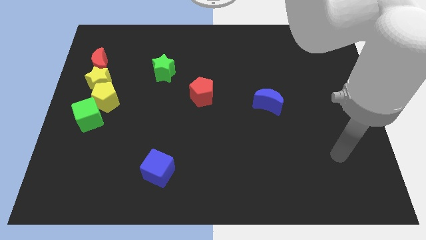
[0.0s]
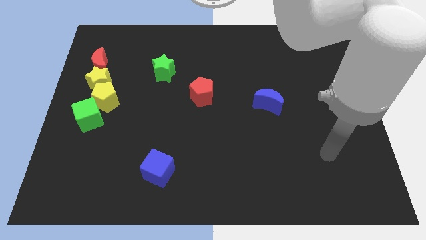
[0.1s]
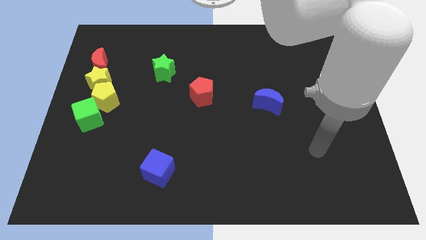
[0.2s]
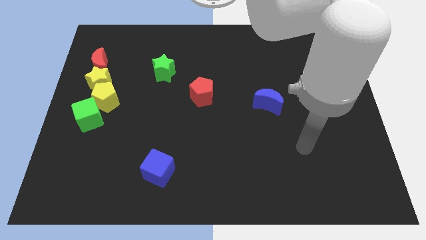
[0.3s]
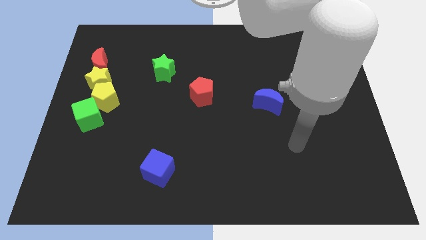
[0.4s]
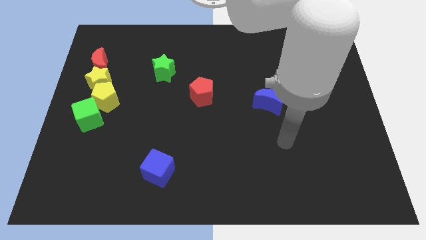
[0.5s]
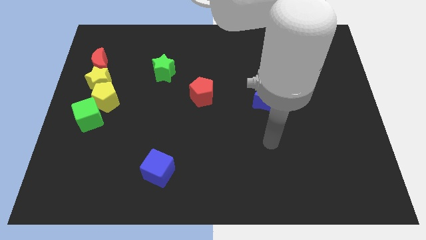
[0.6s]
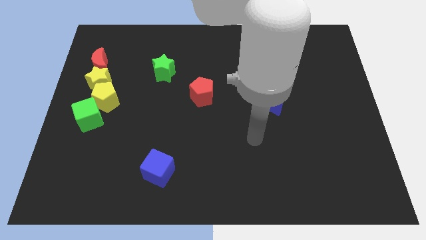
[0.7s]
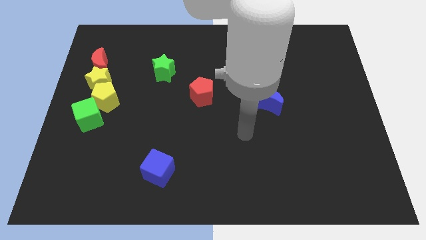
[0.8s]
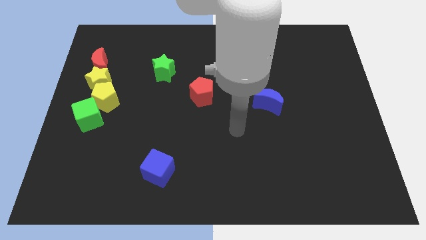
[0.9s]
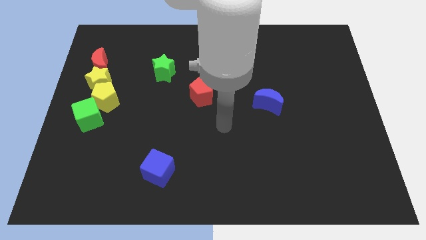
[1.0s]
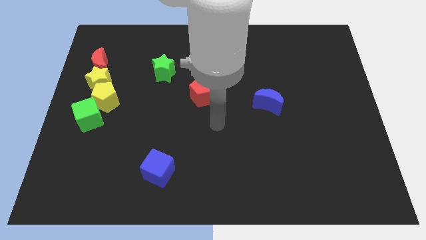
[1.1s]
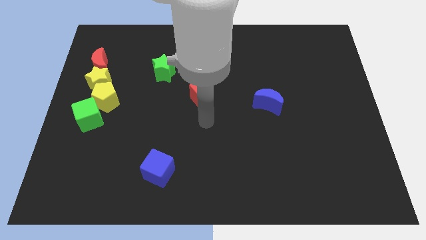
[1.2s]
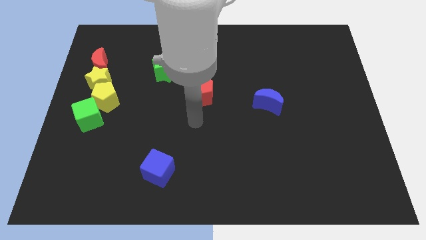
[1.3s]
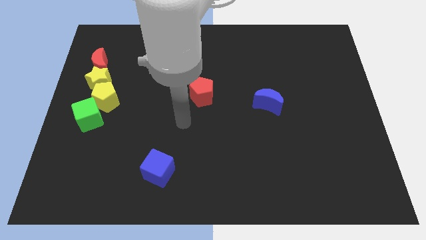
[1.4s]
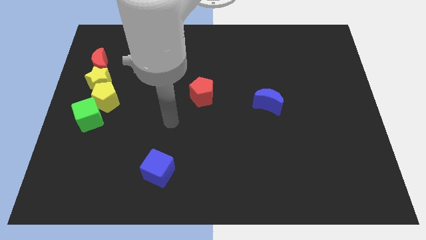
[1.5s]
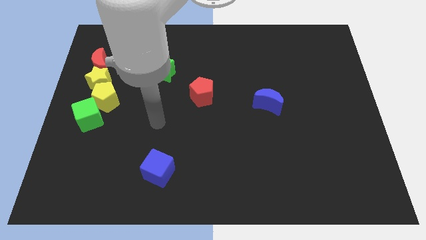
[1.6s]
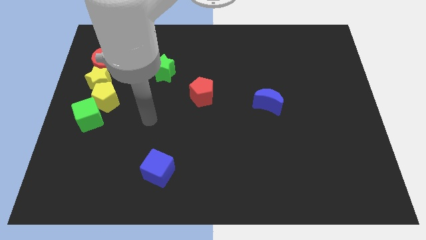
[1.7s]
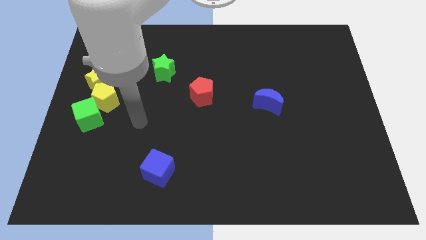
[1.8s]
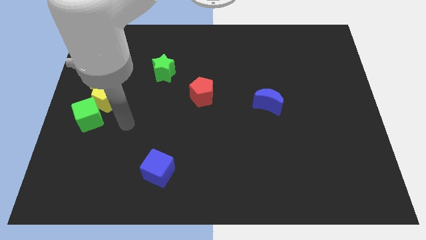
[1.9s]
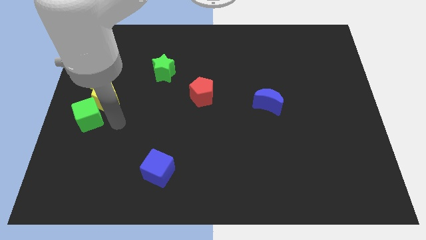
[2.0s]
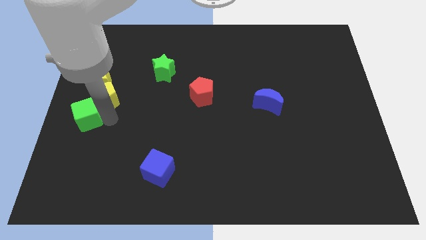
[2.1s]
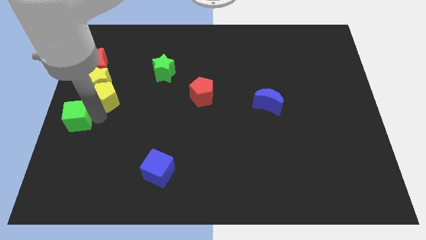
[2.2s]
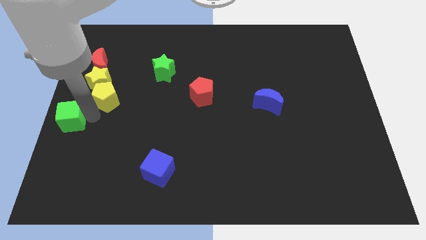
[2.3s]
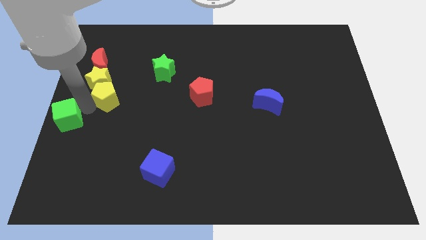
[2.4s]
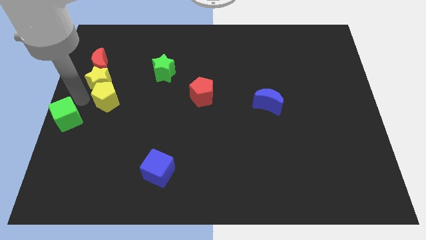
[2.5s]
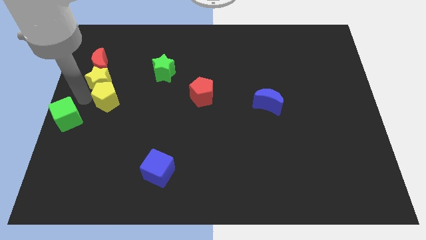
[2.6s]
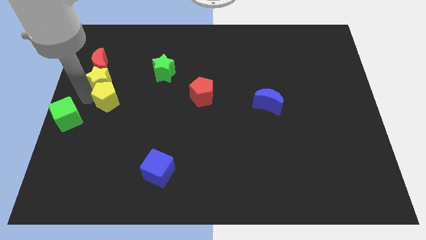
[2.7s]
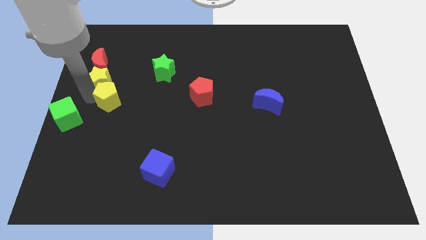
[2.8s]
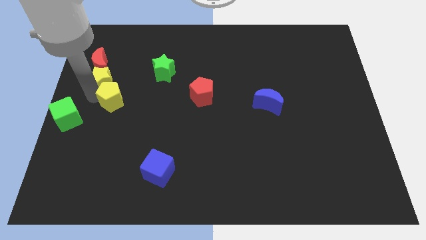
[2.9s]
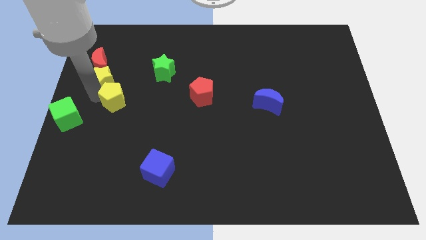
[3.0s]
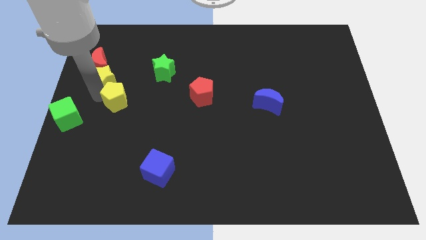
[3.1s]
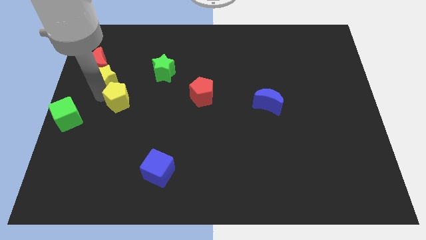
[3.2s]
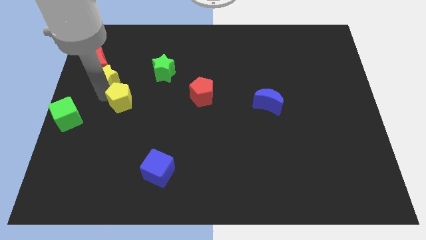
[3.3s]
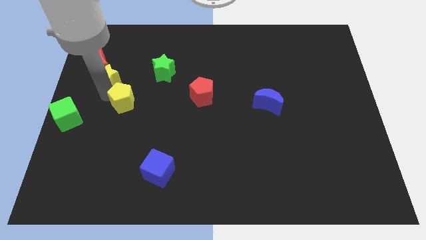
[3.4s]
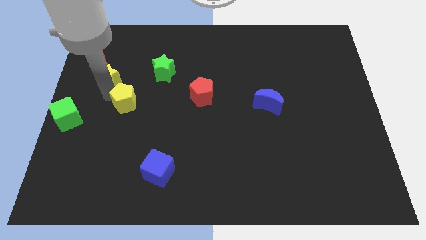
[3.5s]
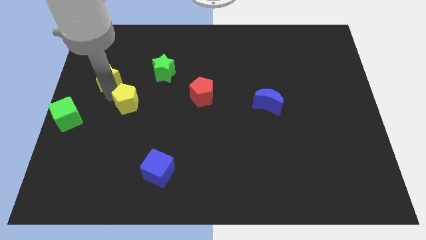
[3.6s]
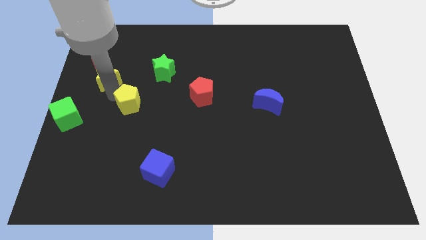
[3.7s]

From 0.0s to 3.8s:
pull the yellow pentagon apart from the yellow star and green cube

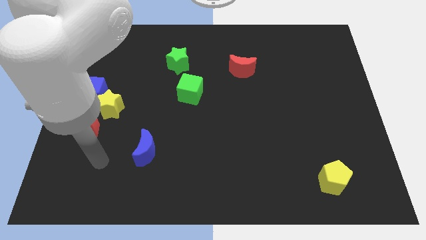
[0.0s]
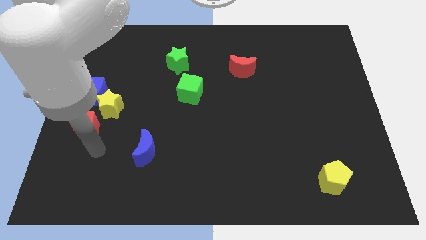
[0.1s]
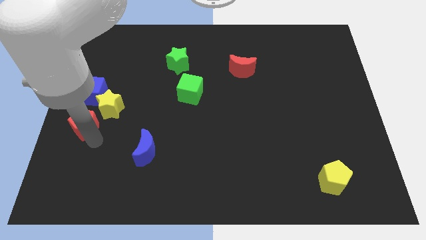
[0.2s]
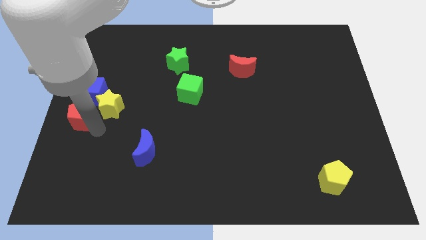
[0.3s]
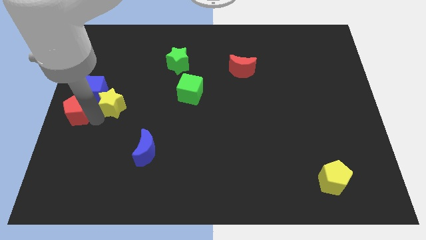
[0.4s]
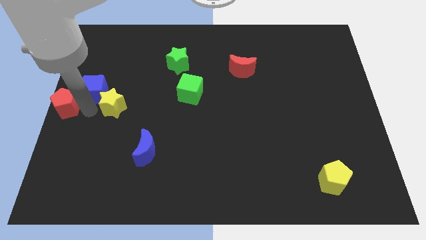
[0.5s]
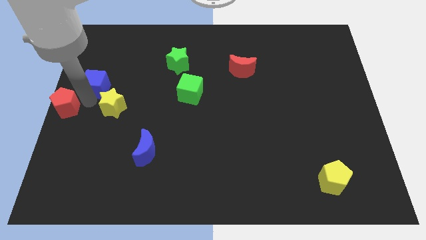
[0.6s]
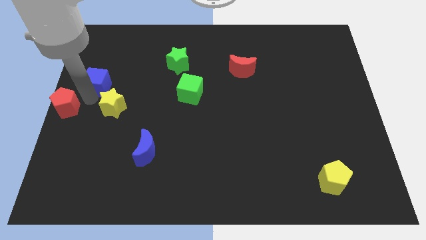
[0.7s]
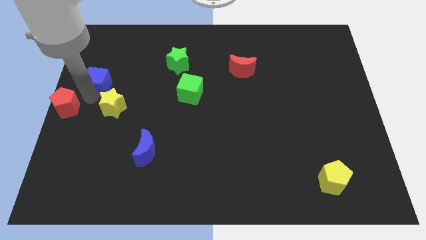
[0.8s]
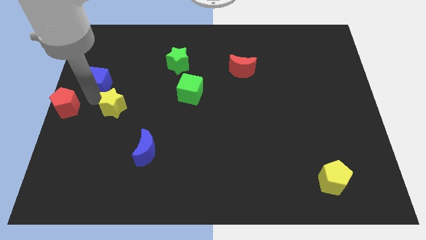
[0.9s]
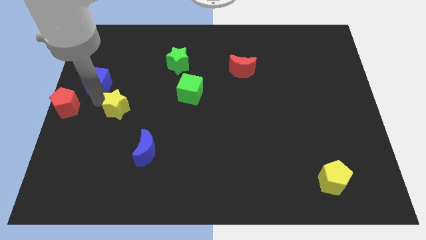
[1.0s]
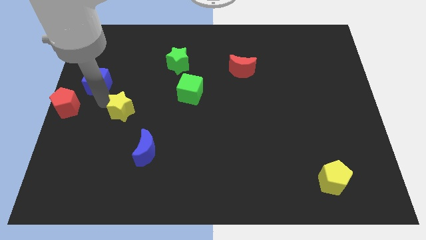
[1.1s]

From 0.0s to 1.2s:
move the yellow star away from the blue cube and red pentagon

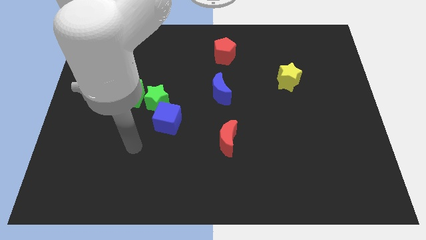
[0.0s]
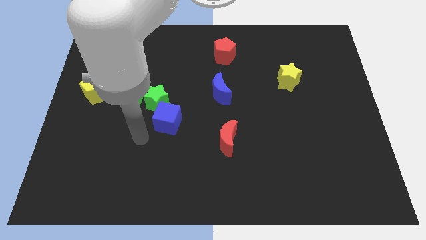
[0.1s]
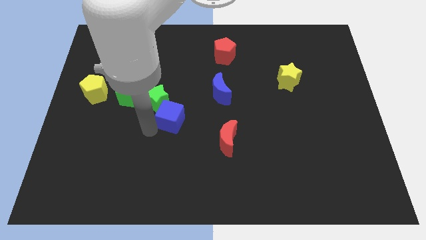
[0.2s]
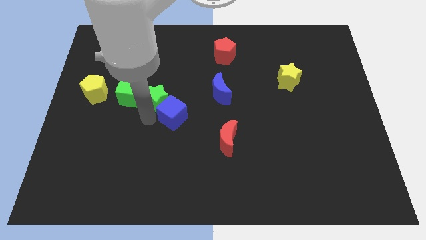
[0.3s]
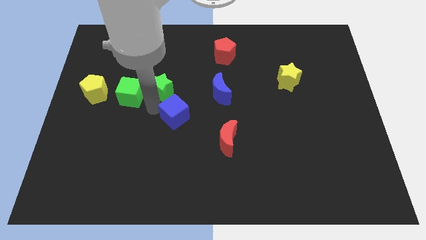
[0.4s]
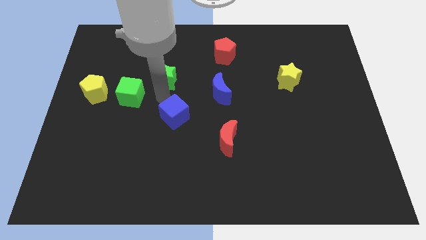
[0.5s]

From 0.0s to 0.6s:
move the blue cube away from the green star

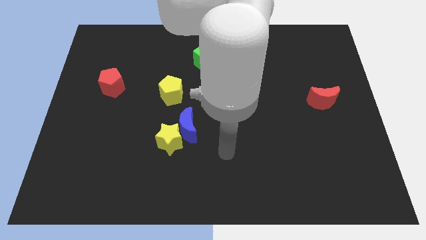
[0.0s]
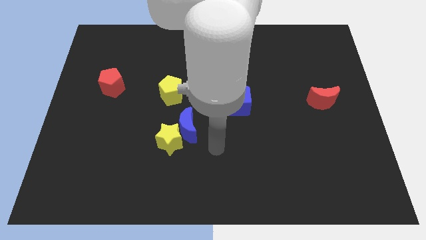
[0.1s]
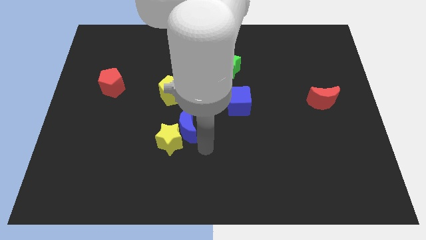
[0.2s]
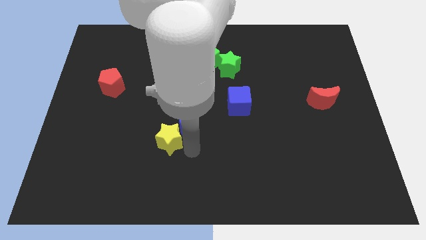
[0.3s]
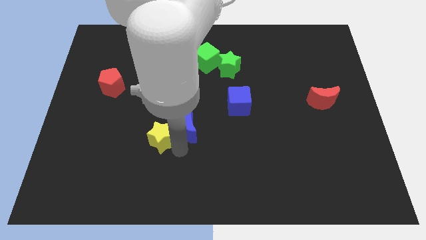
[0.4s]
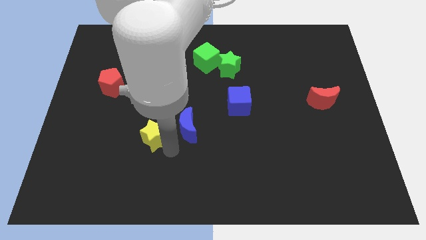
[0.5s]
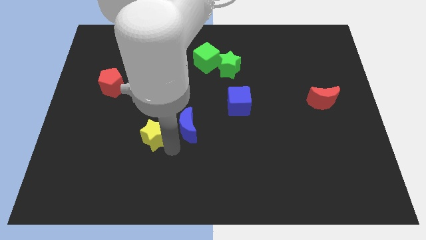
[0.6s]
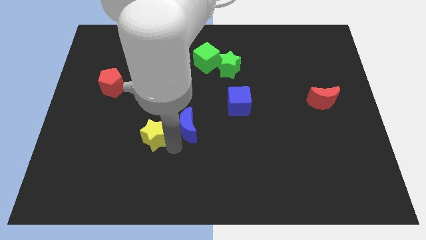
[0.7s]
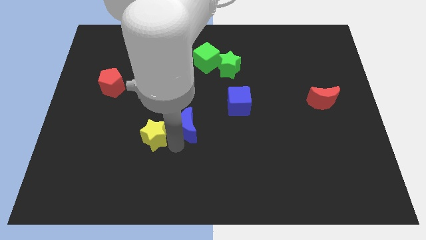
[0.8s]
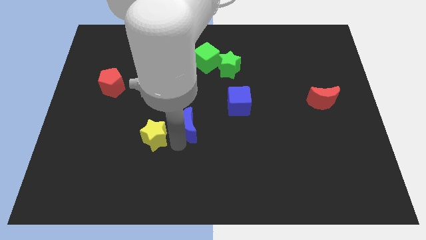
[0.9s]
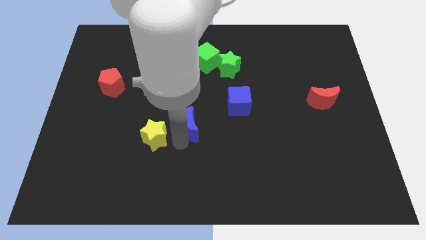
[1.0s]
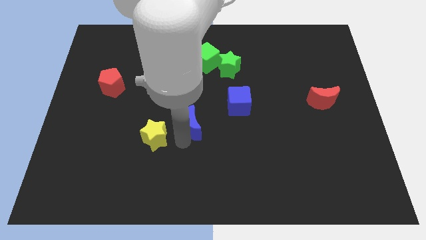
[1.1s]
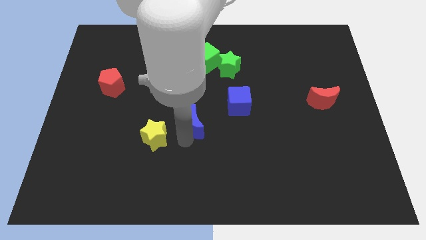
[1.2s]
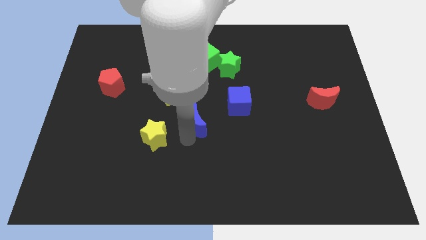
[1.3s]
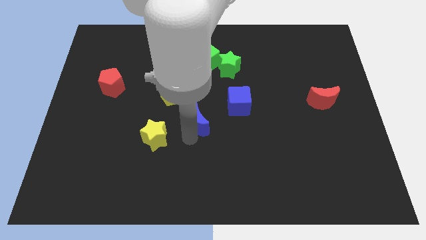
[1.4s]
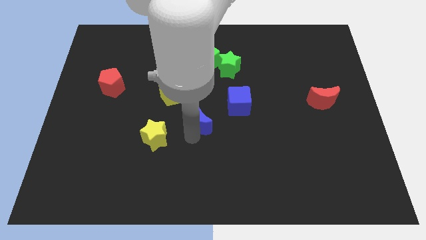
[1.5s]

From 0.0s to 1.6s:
pull the blue moon apart from the yellow star

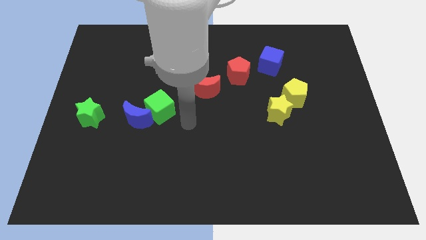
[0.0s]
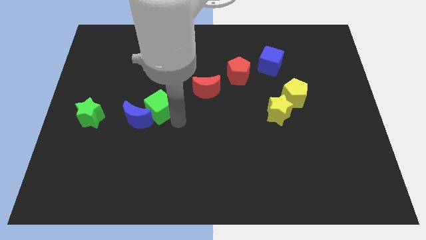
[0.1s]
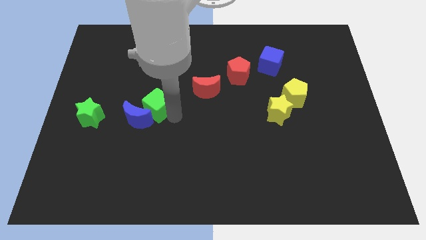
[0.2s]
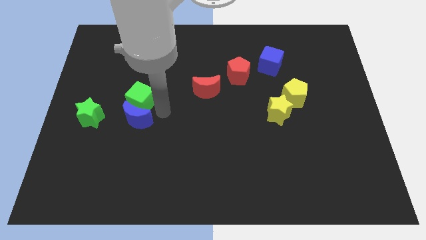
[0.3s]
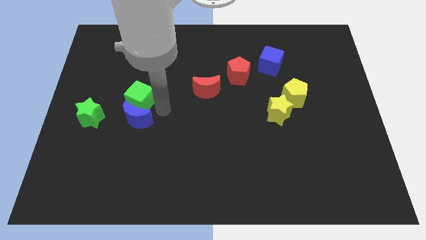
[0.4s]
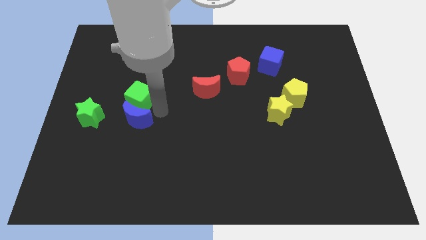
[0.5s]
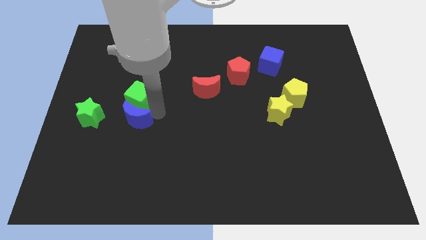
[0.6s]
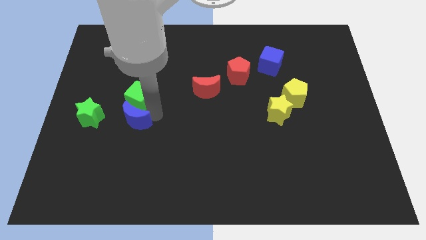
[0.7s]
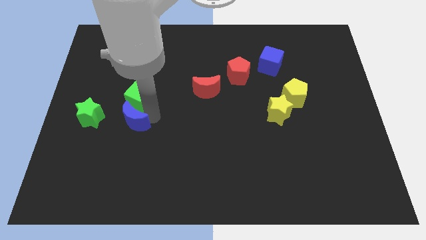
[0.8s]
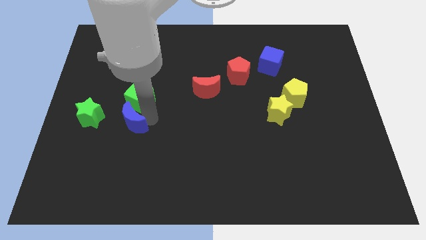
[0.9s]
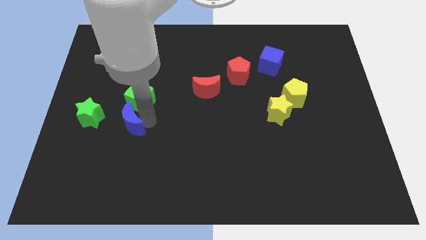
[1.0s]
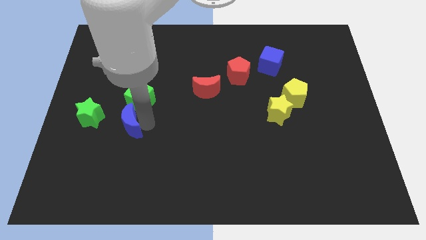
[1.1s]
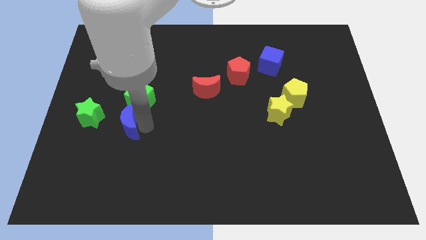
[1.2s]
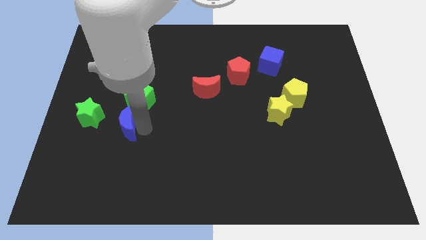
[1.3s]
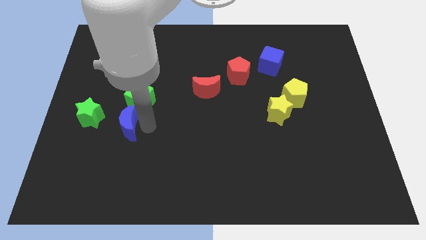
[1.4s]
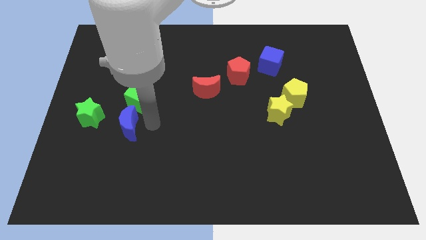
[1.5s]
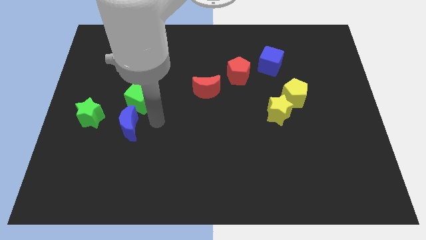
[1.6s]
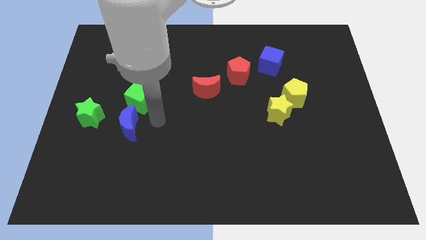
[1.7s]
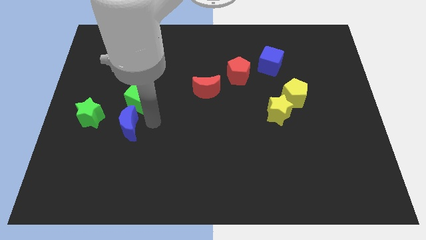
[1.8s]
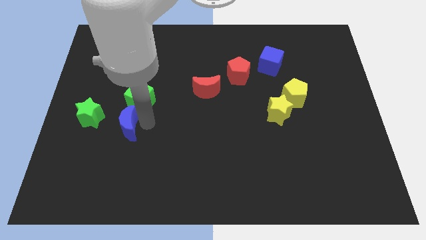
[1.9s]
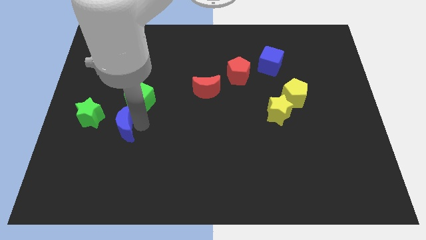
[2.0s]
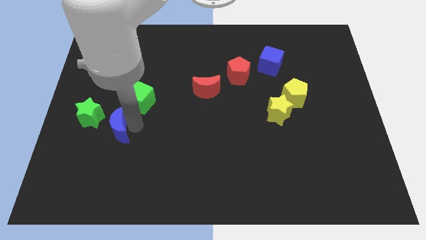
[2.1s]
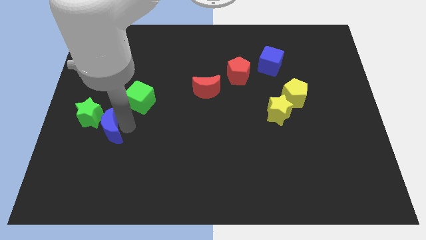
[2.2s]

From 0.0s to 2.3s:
move the blue moon away from the green cube
